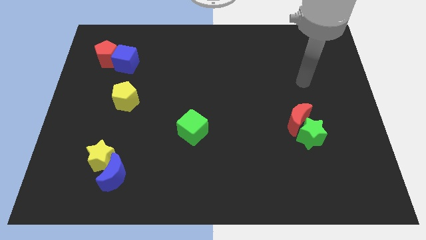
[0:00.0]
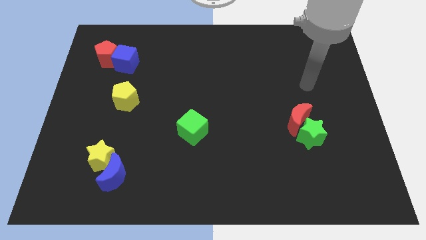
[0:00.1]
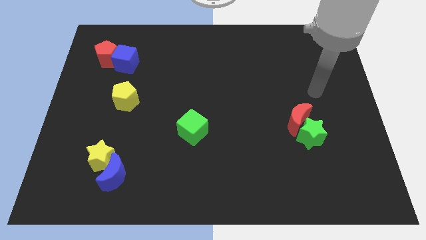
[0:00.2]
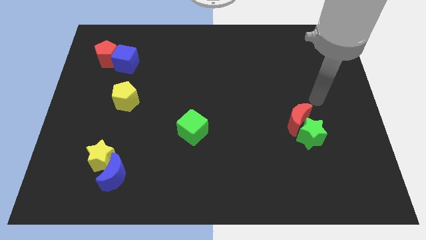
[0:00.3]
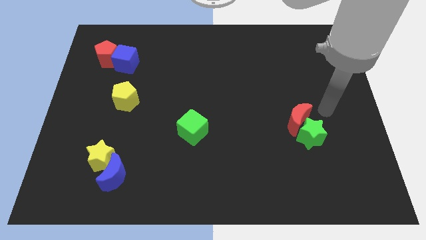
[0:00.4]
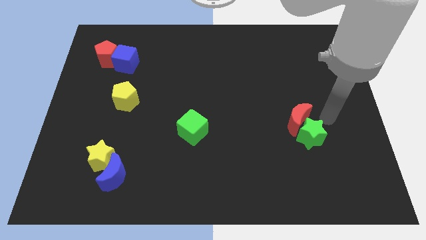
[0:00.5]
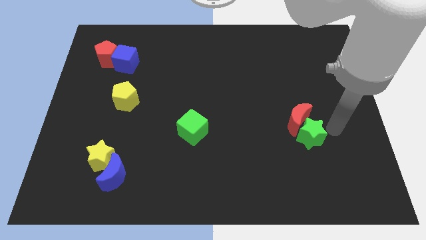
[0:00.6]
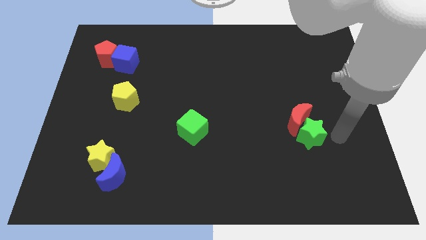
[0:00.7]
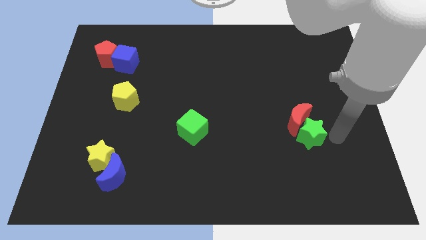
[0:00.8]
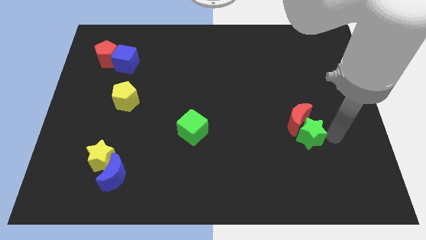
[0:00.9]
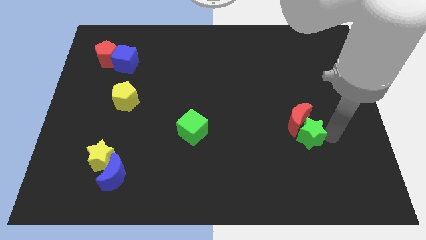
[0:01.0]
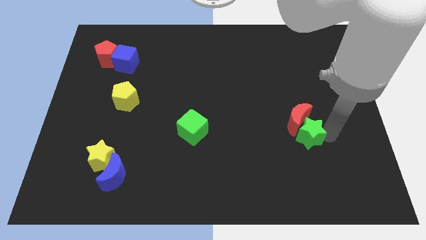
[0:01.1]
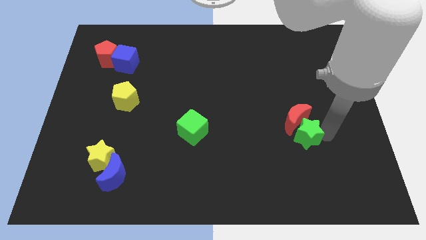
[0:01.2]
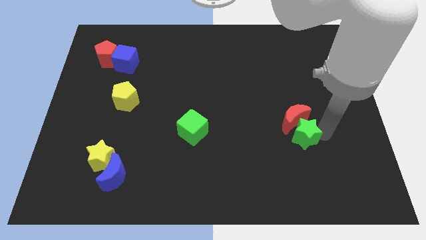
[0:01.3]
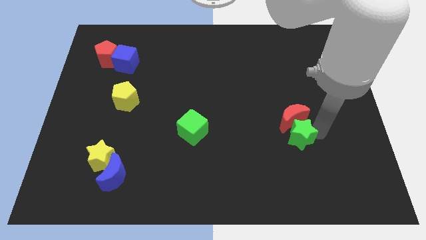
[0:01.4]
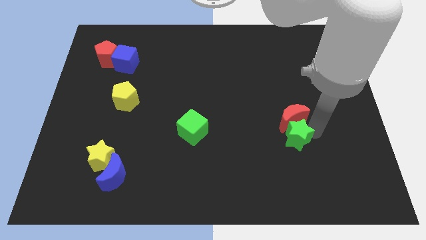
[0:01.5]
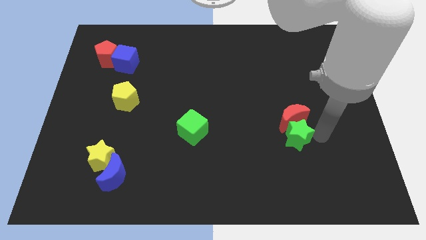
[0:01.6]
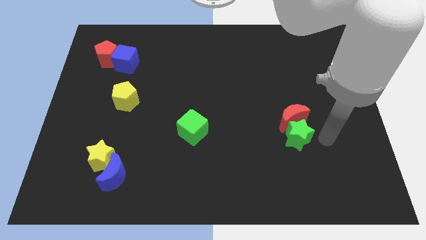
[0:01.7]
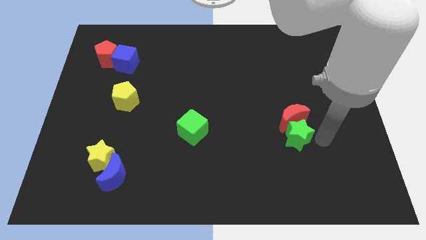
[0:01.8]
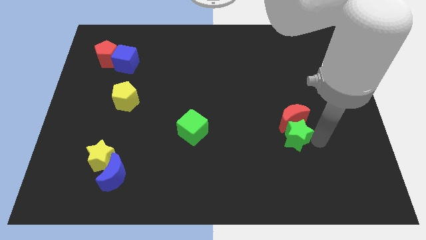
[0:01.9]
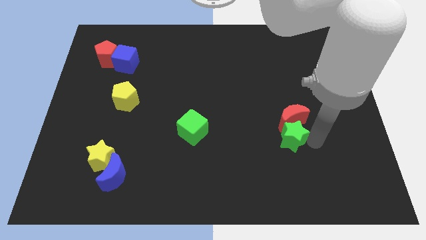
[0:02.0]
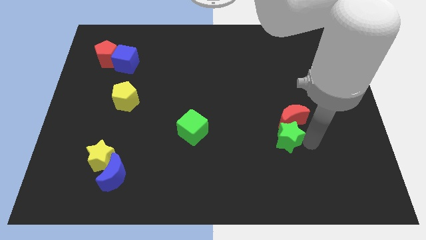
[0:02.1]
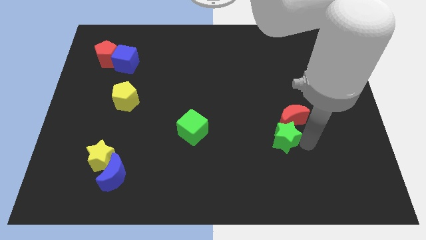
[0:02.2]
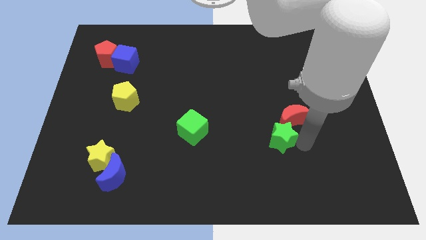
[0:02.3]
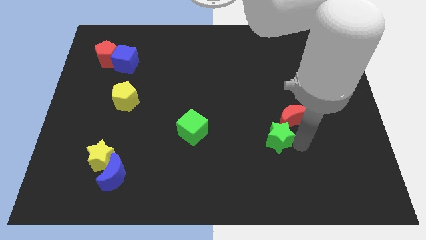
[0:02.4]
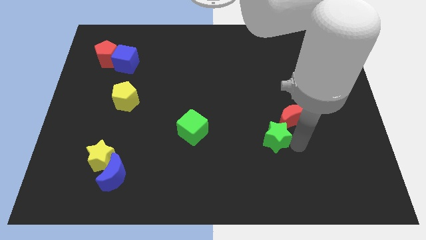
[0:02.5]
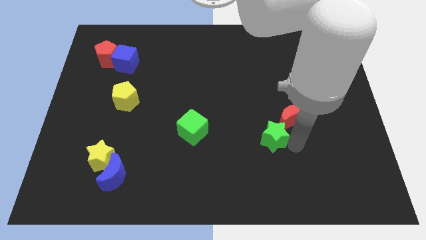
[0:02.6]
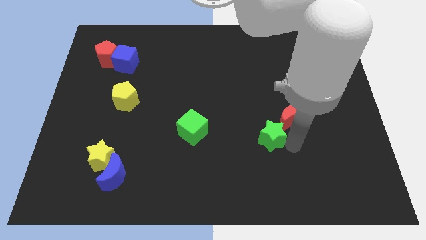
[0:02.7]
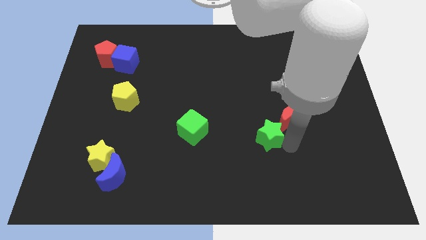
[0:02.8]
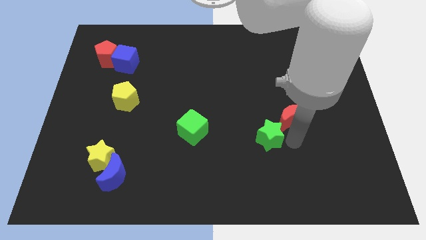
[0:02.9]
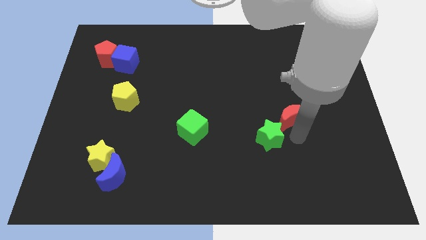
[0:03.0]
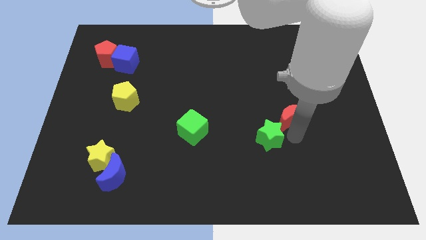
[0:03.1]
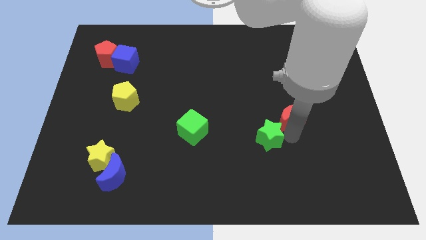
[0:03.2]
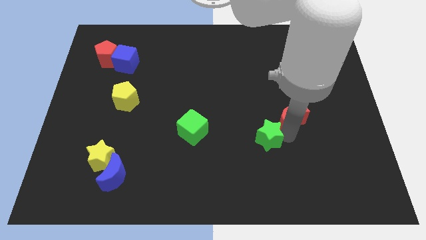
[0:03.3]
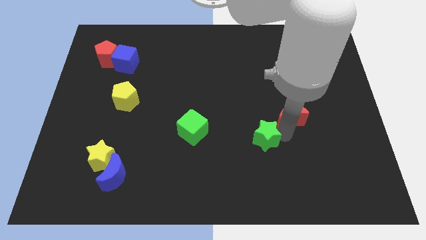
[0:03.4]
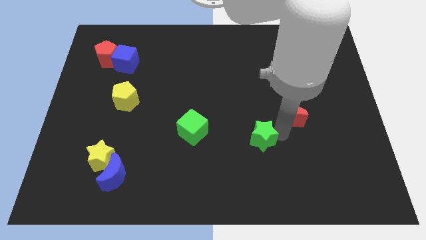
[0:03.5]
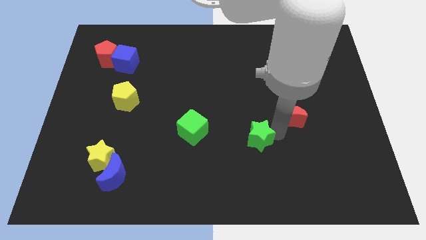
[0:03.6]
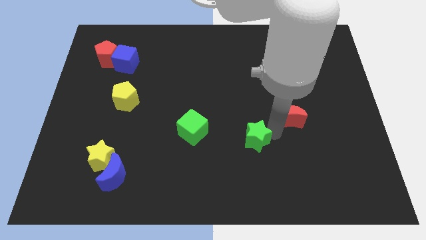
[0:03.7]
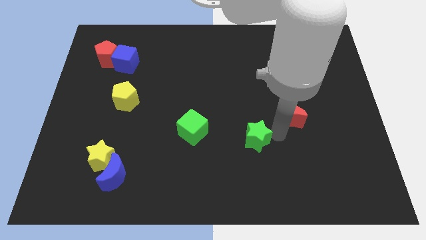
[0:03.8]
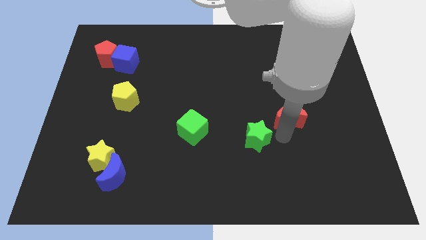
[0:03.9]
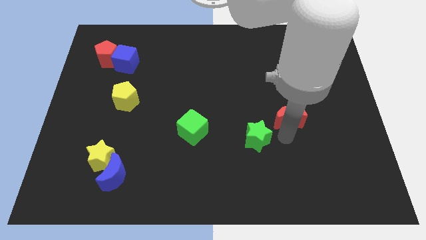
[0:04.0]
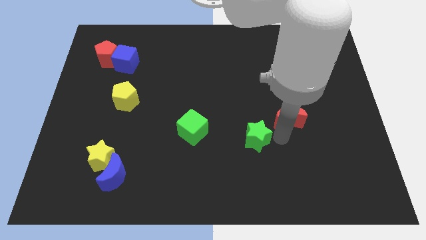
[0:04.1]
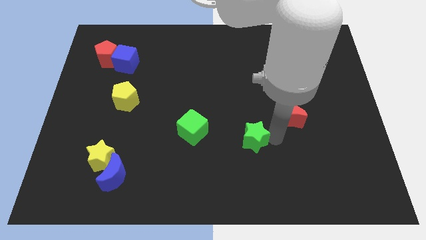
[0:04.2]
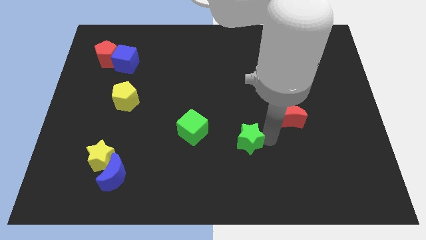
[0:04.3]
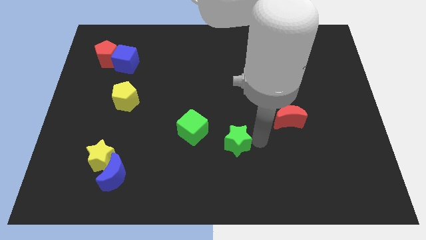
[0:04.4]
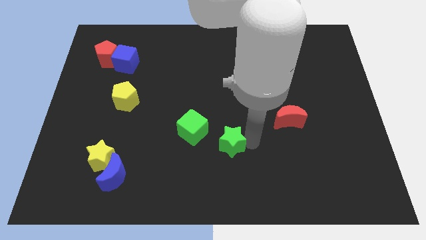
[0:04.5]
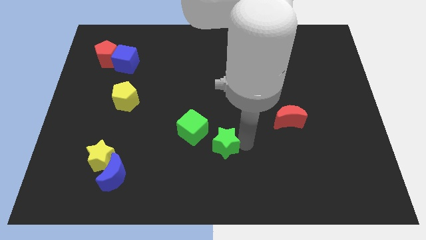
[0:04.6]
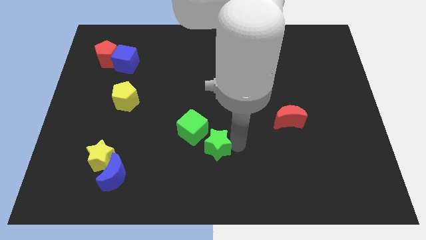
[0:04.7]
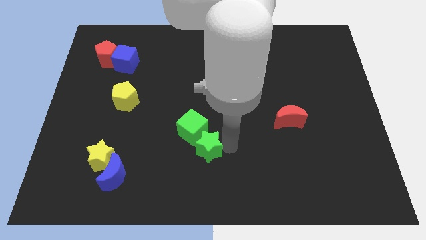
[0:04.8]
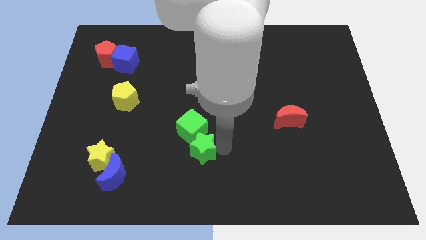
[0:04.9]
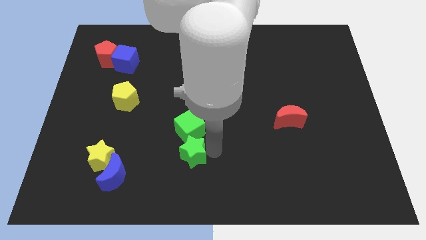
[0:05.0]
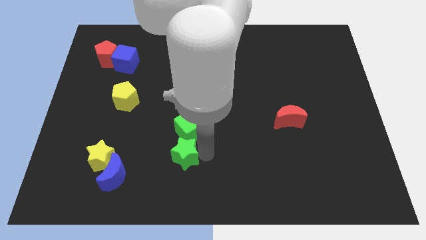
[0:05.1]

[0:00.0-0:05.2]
push the green star to the bottom left side of the green cube

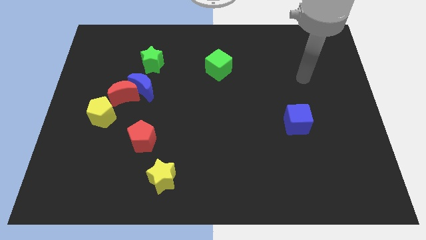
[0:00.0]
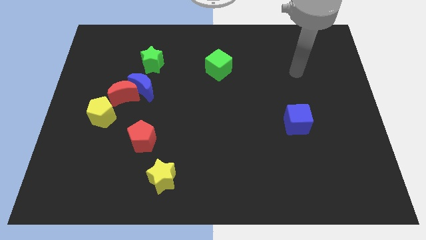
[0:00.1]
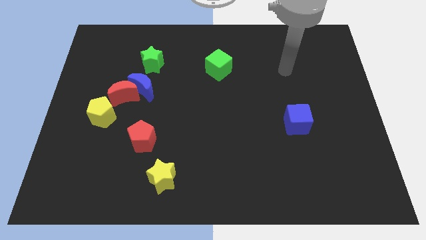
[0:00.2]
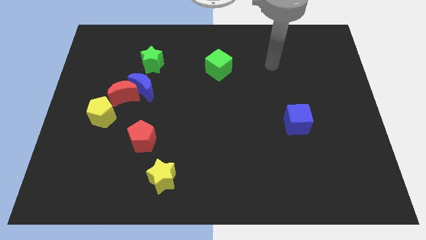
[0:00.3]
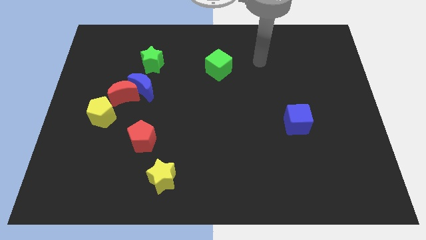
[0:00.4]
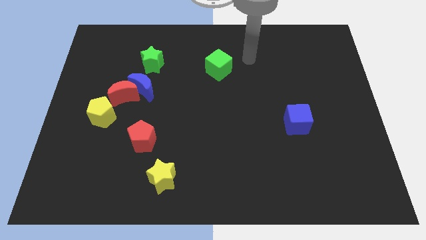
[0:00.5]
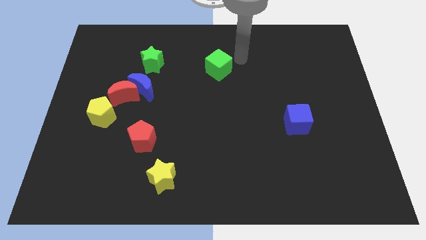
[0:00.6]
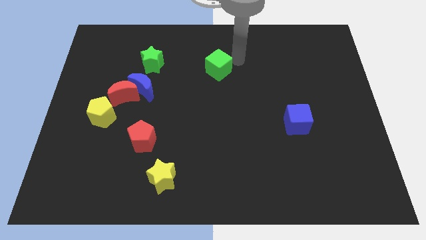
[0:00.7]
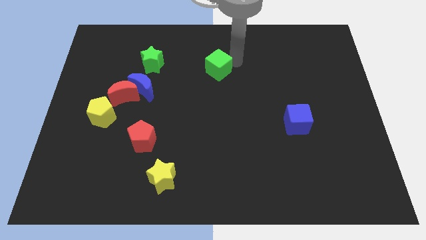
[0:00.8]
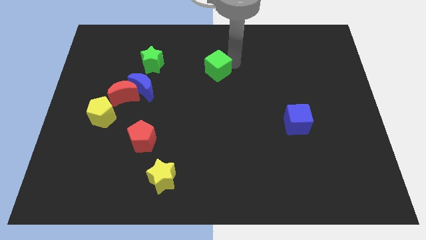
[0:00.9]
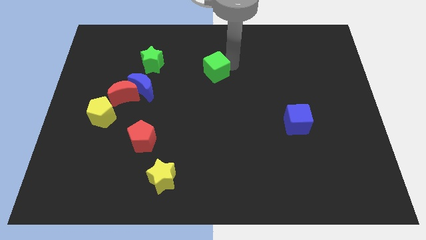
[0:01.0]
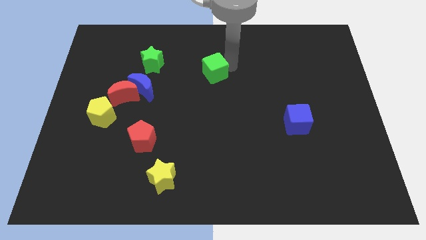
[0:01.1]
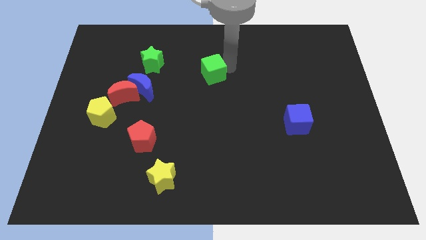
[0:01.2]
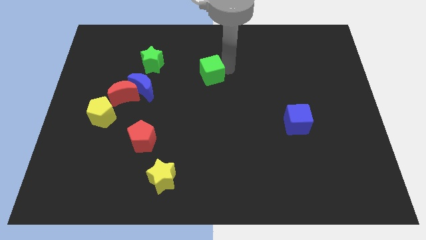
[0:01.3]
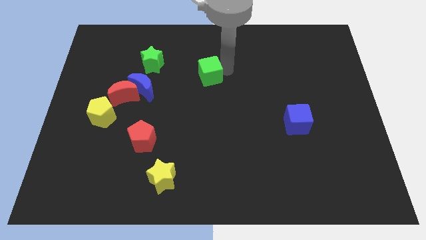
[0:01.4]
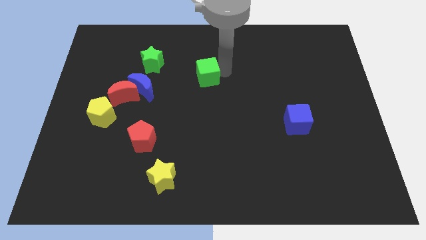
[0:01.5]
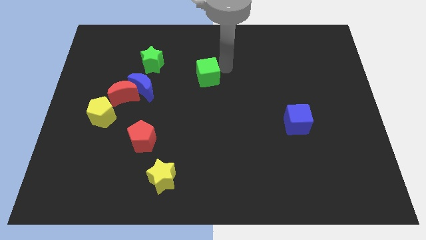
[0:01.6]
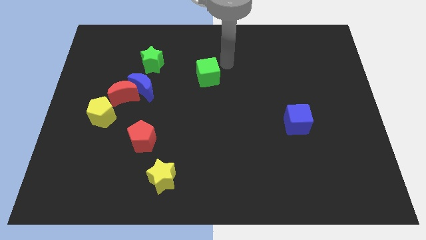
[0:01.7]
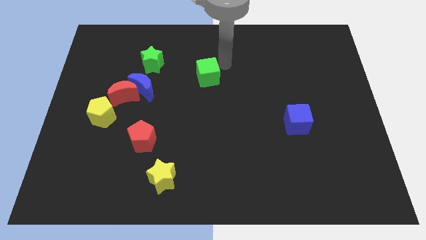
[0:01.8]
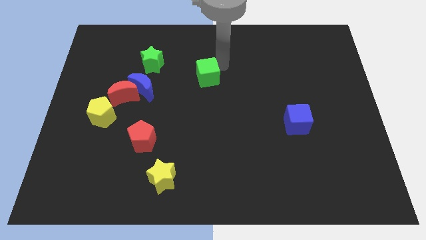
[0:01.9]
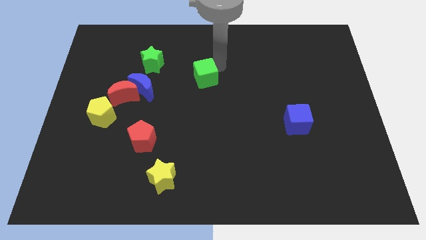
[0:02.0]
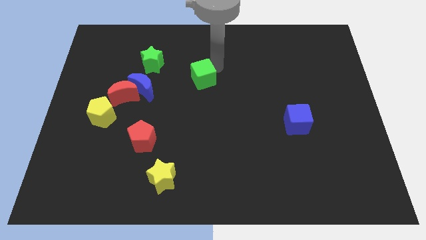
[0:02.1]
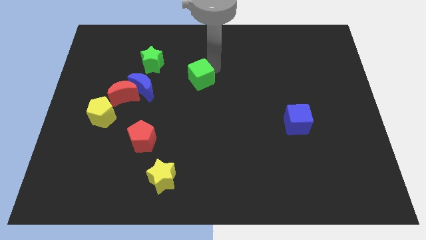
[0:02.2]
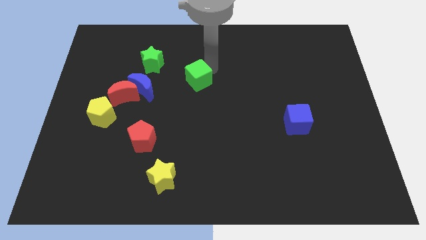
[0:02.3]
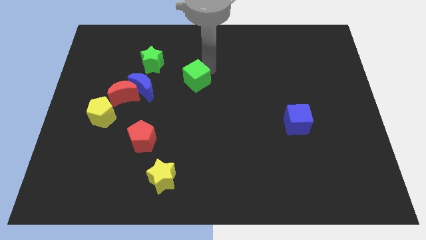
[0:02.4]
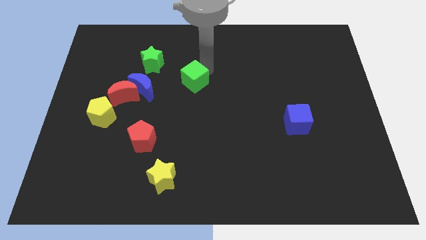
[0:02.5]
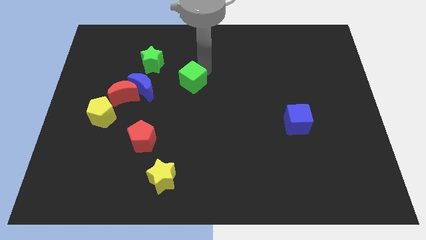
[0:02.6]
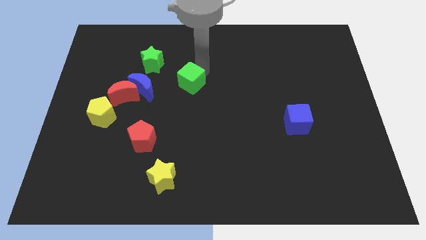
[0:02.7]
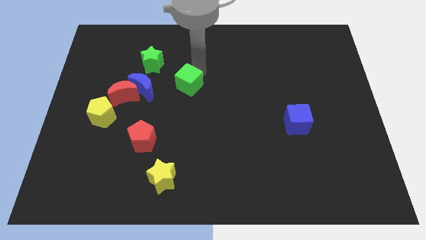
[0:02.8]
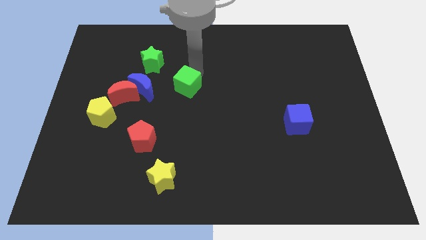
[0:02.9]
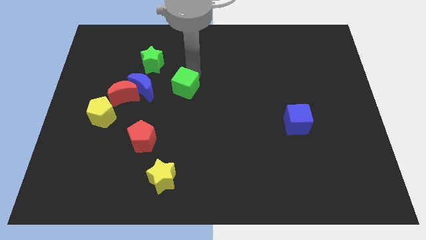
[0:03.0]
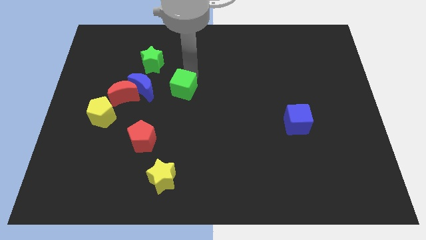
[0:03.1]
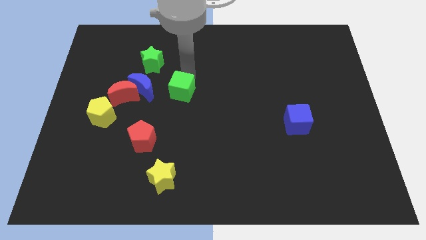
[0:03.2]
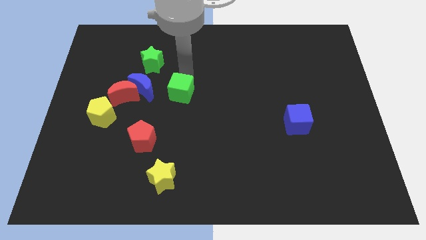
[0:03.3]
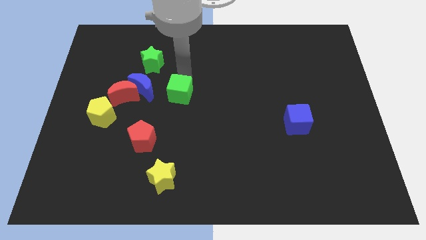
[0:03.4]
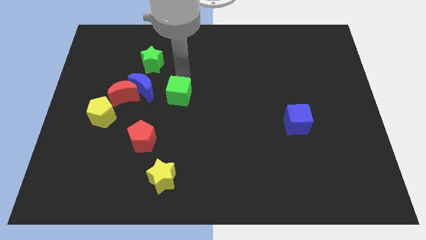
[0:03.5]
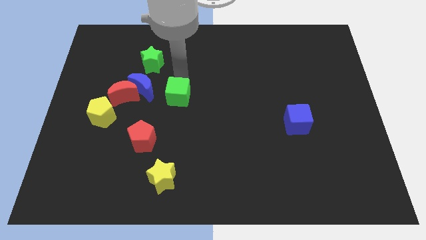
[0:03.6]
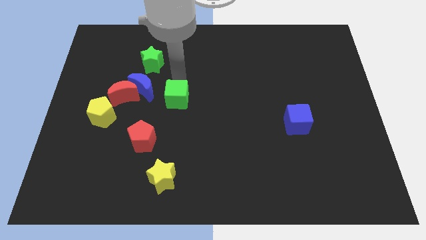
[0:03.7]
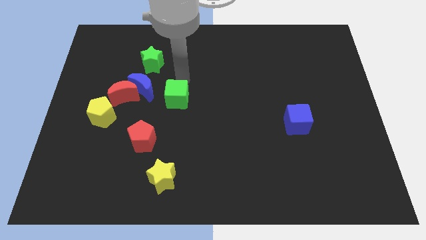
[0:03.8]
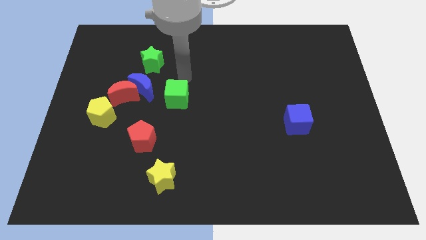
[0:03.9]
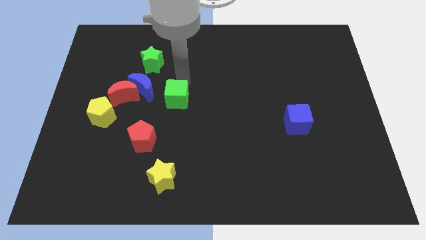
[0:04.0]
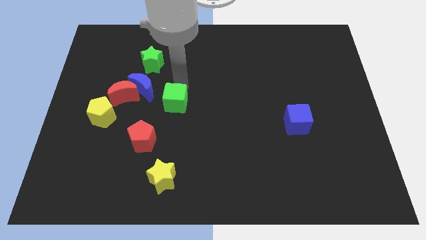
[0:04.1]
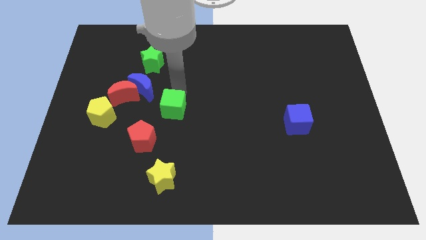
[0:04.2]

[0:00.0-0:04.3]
slide the green cube diagonally up and to the right of the red pentagon
